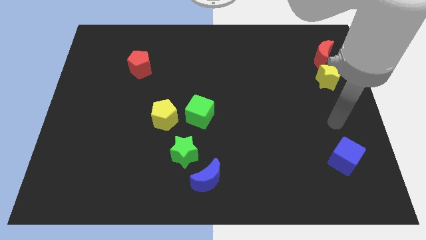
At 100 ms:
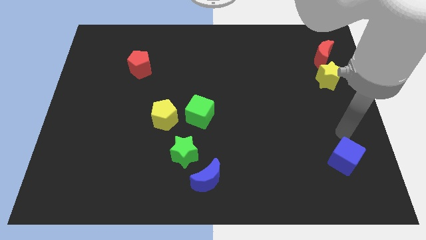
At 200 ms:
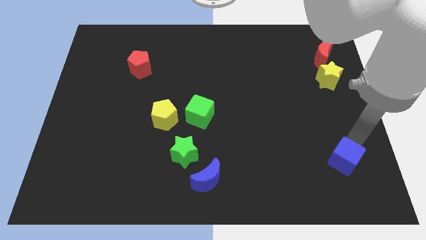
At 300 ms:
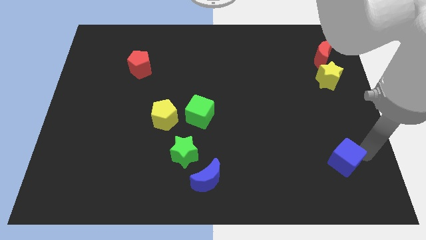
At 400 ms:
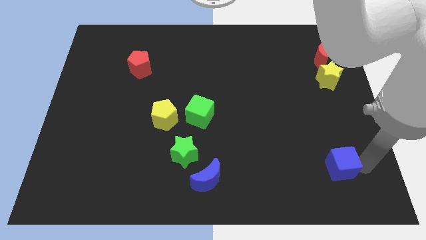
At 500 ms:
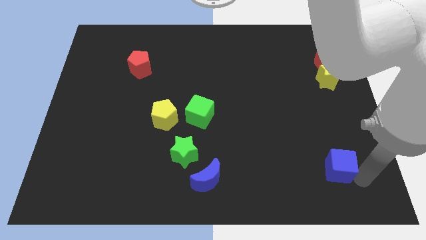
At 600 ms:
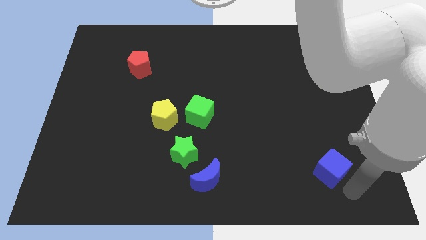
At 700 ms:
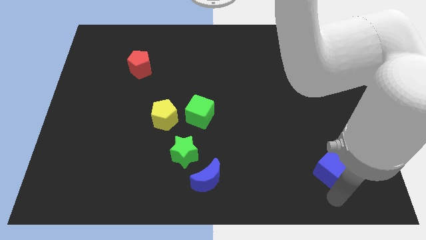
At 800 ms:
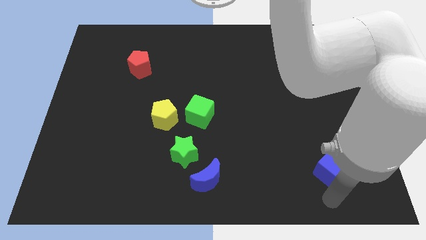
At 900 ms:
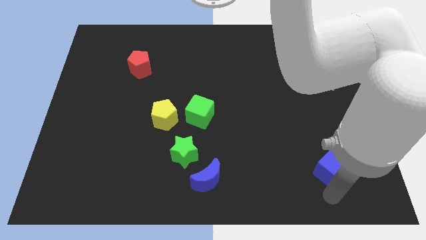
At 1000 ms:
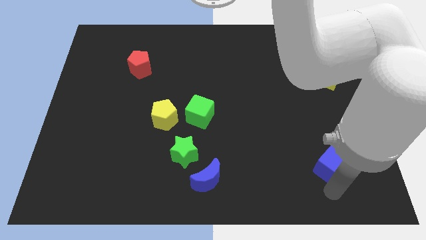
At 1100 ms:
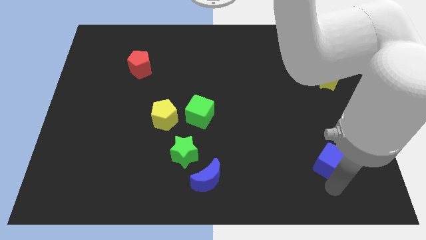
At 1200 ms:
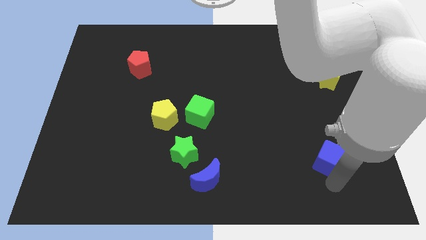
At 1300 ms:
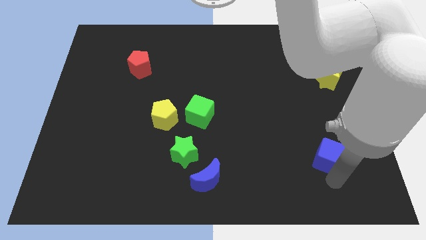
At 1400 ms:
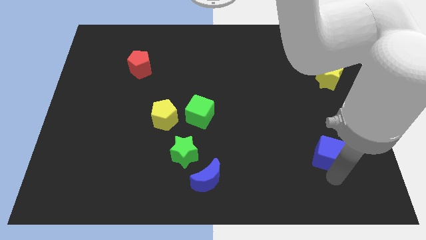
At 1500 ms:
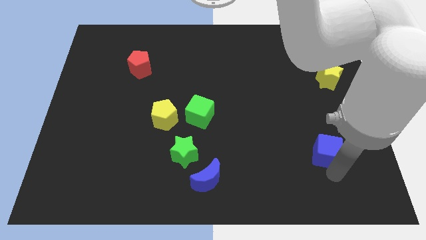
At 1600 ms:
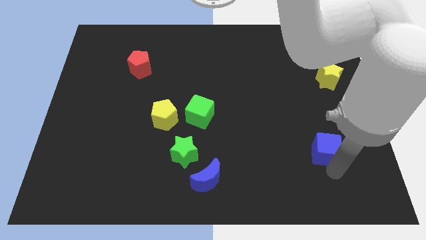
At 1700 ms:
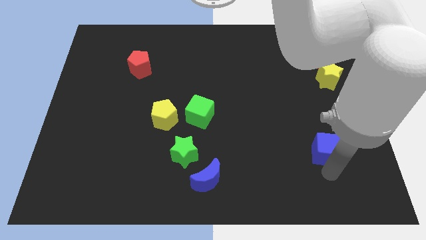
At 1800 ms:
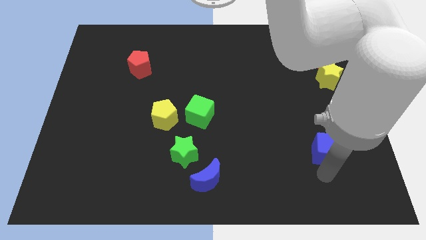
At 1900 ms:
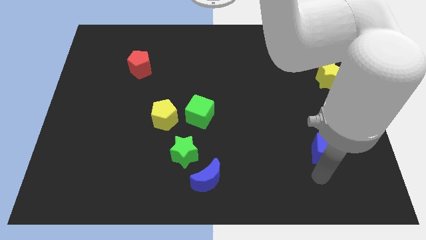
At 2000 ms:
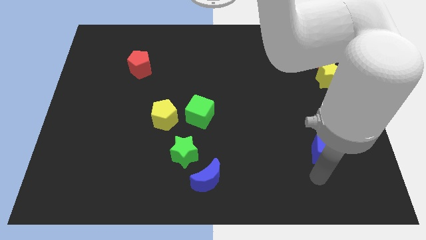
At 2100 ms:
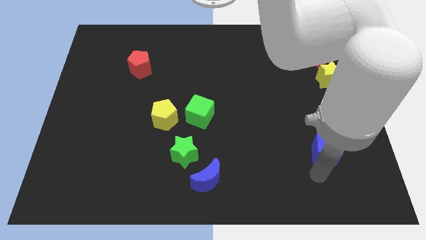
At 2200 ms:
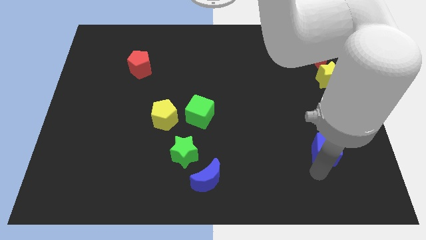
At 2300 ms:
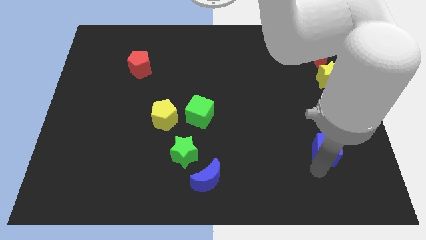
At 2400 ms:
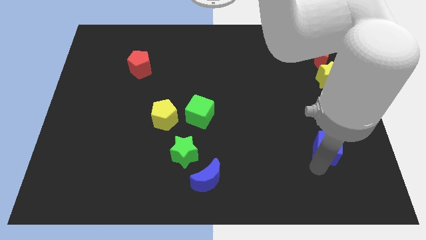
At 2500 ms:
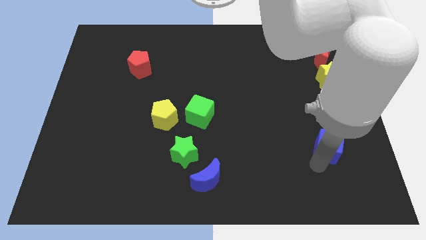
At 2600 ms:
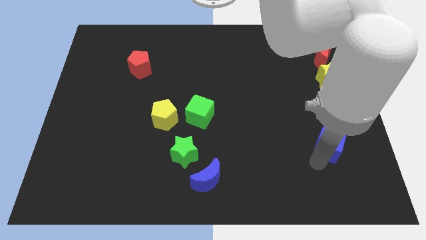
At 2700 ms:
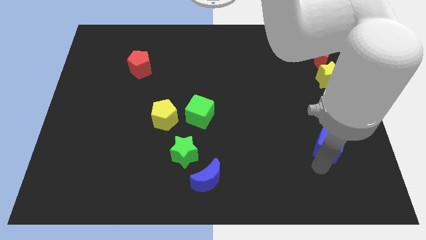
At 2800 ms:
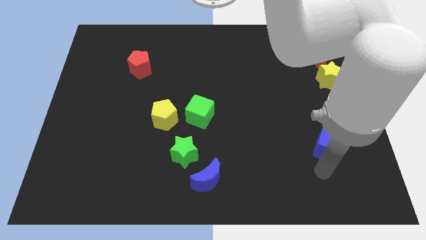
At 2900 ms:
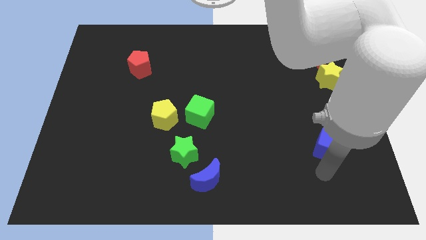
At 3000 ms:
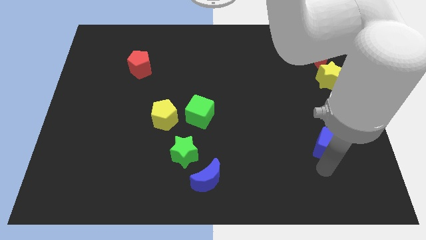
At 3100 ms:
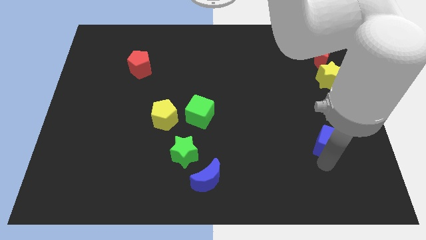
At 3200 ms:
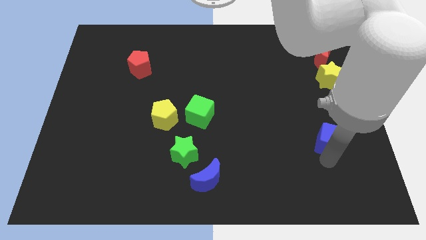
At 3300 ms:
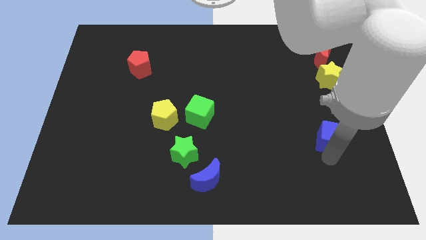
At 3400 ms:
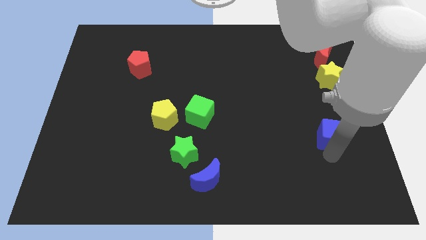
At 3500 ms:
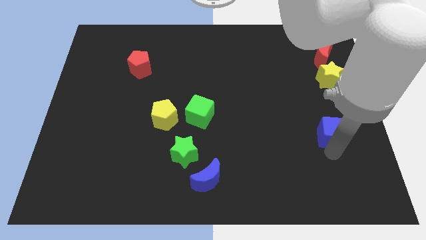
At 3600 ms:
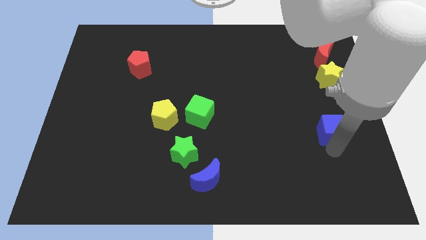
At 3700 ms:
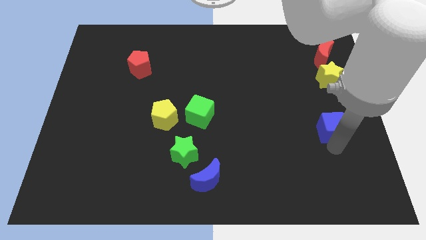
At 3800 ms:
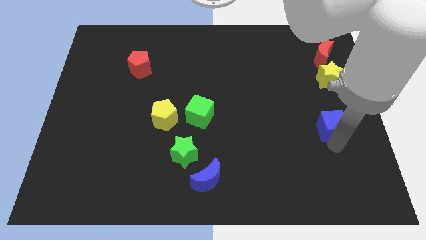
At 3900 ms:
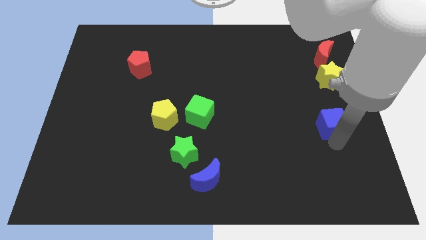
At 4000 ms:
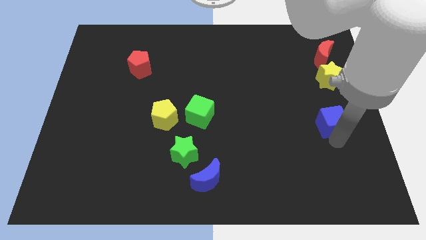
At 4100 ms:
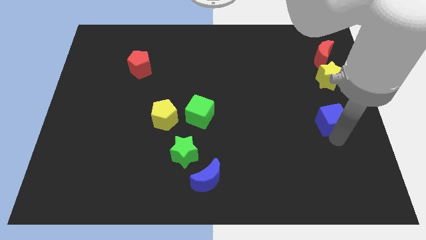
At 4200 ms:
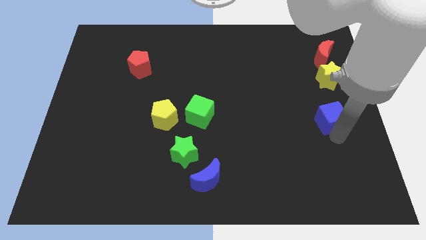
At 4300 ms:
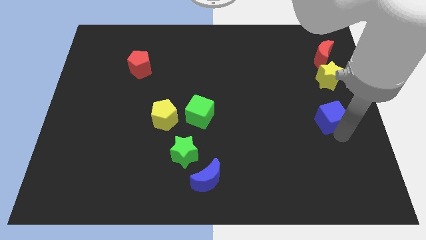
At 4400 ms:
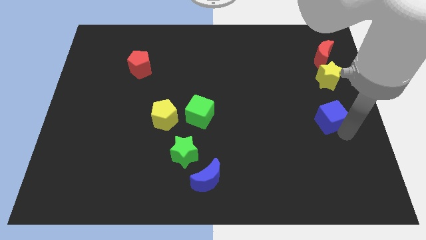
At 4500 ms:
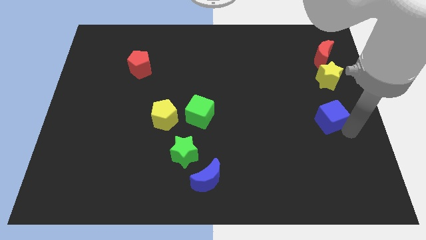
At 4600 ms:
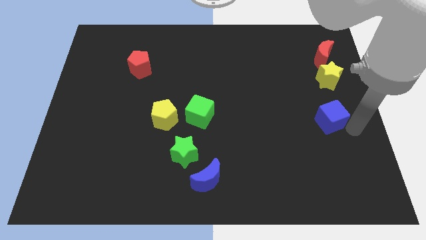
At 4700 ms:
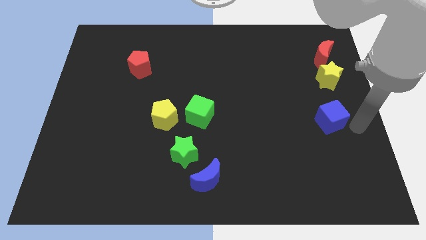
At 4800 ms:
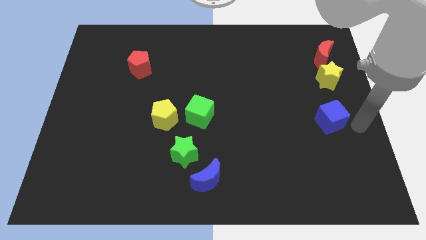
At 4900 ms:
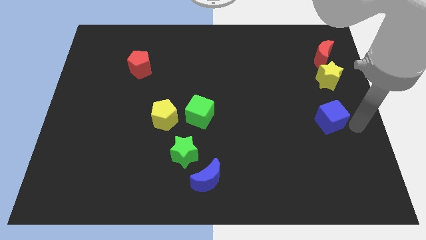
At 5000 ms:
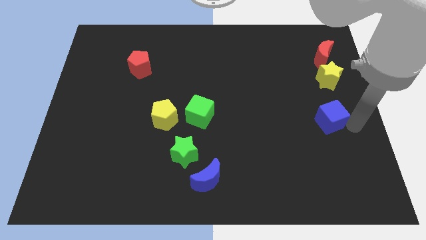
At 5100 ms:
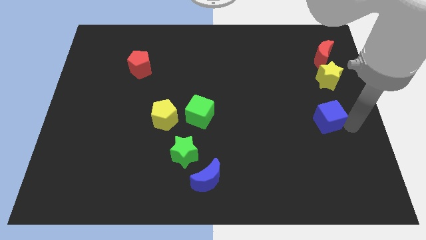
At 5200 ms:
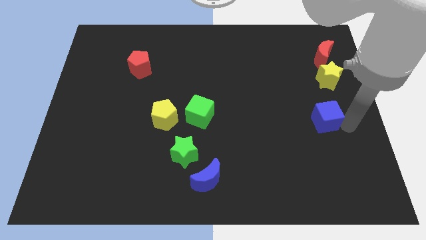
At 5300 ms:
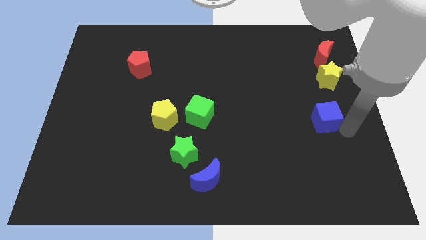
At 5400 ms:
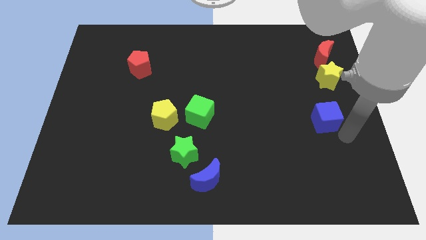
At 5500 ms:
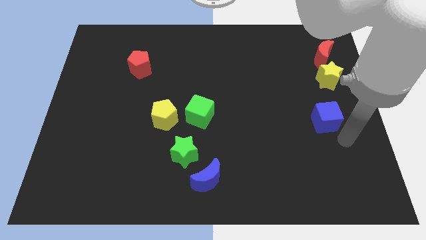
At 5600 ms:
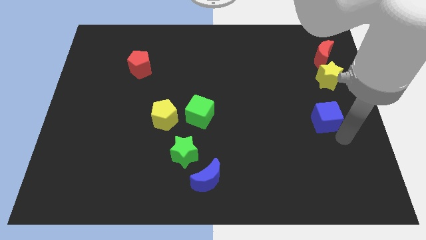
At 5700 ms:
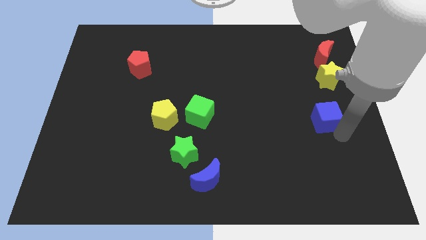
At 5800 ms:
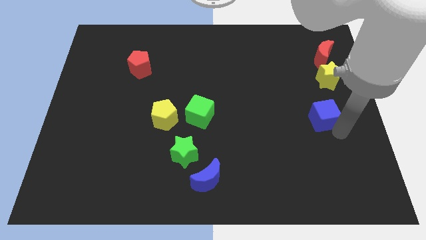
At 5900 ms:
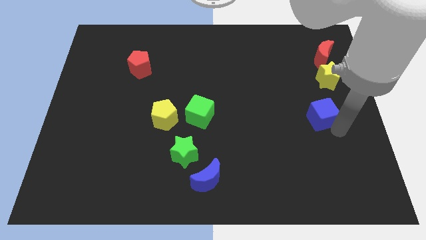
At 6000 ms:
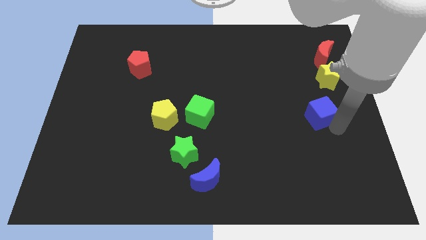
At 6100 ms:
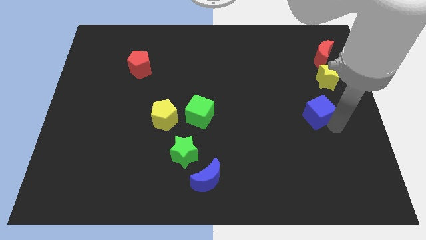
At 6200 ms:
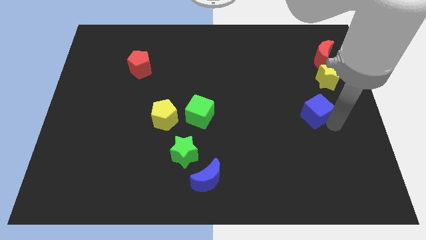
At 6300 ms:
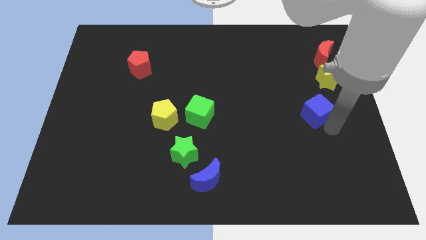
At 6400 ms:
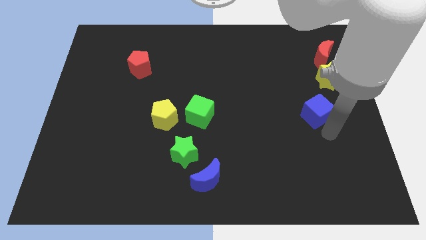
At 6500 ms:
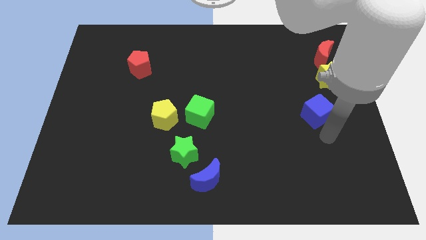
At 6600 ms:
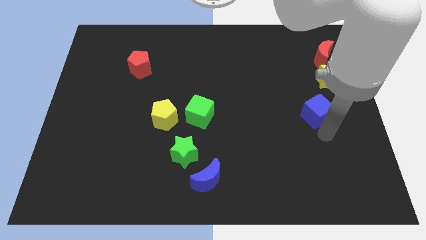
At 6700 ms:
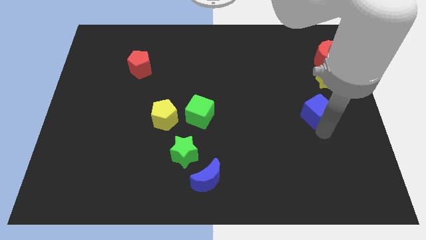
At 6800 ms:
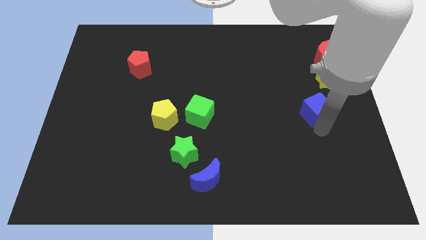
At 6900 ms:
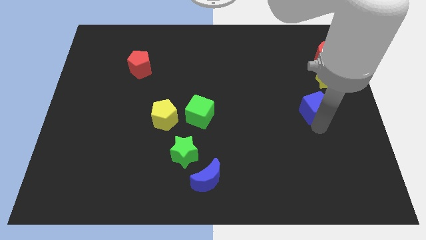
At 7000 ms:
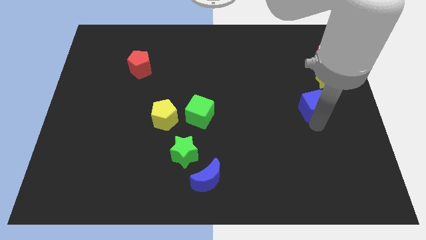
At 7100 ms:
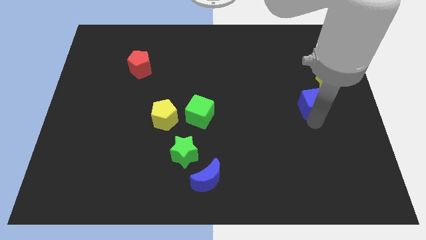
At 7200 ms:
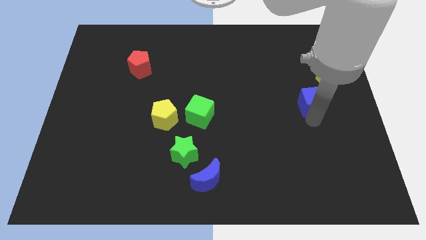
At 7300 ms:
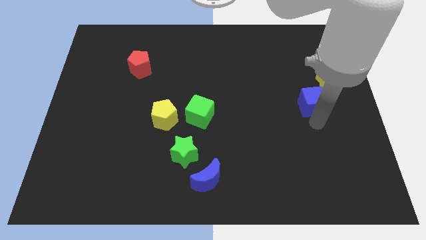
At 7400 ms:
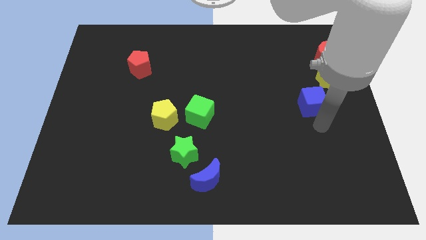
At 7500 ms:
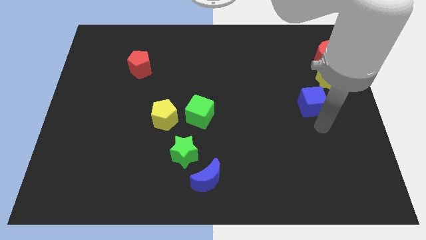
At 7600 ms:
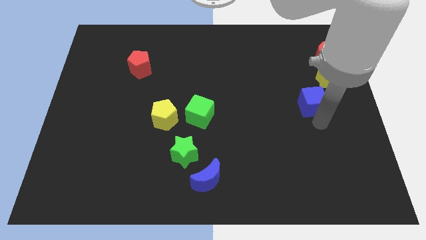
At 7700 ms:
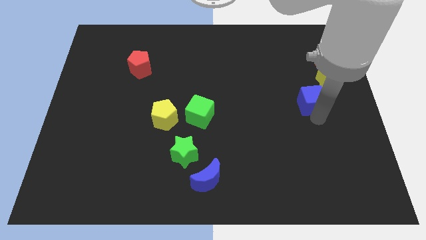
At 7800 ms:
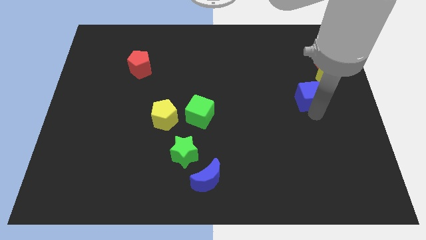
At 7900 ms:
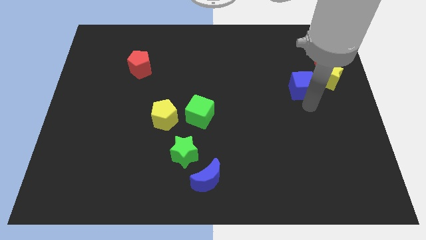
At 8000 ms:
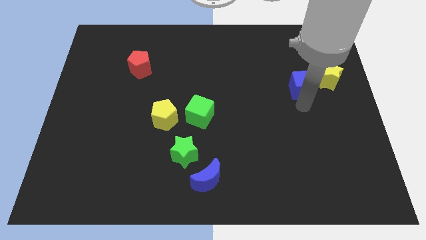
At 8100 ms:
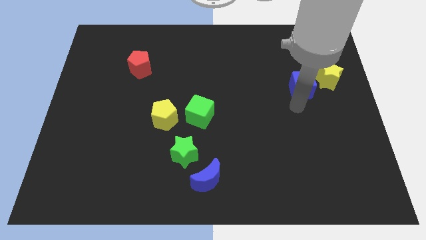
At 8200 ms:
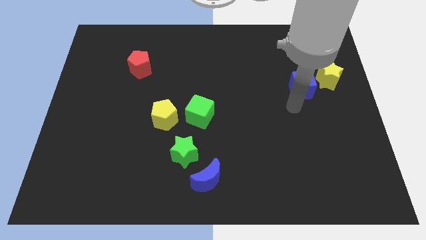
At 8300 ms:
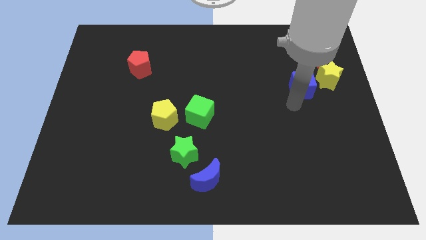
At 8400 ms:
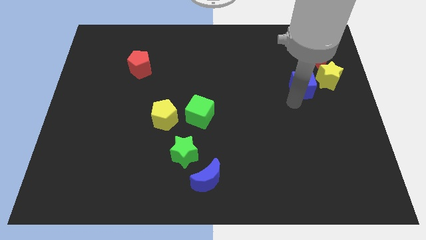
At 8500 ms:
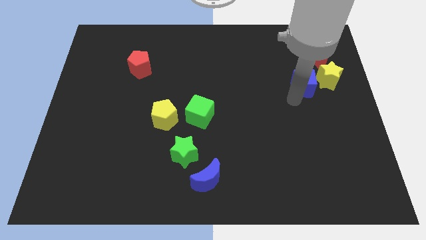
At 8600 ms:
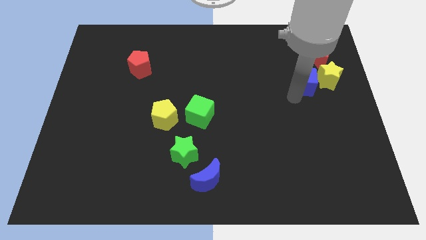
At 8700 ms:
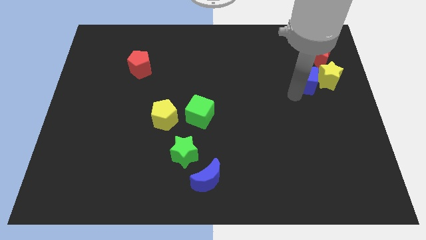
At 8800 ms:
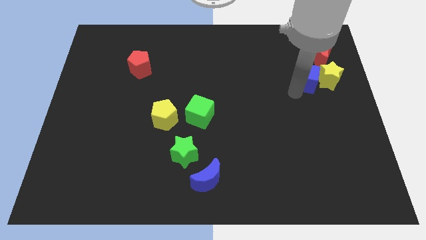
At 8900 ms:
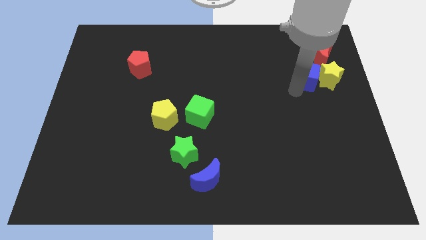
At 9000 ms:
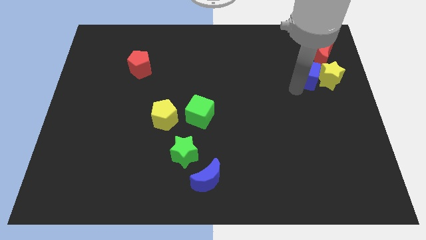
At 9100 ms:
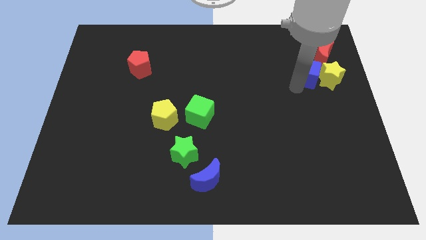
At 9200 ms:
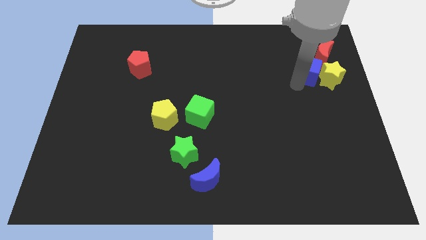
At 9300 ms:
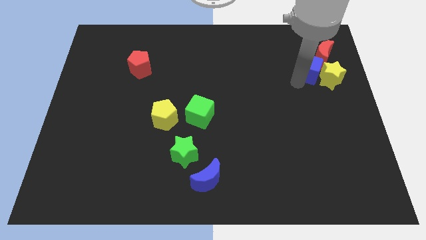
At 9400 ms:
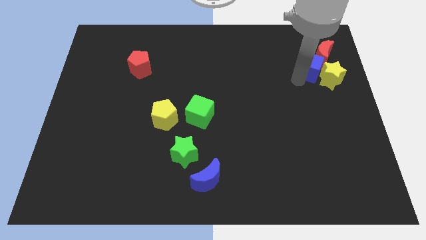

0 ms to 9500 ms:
move the blue cube next to the red moon
